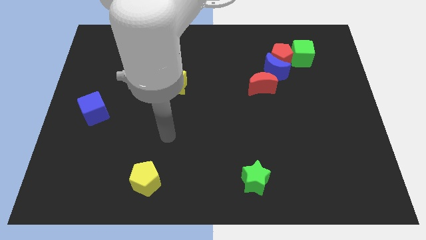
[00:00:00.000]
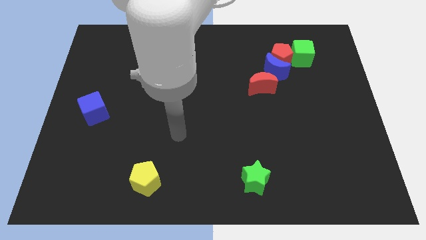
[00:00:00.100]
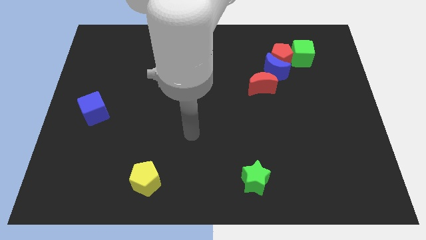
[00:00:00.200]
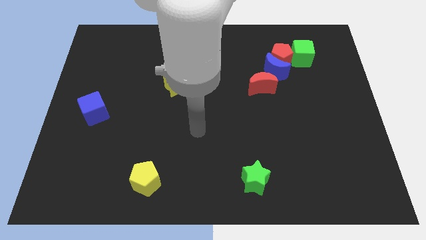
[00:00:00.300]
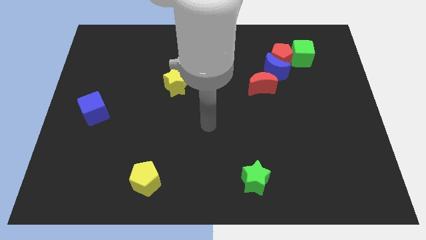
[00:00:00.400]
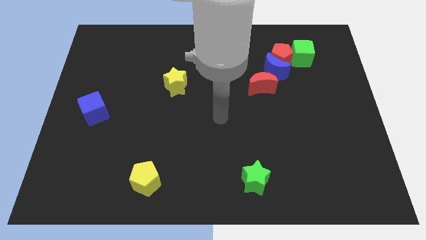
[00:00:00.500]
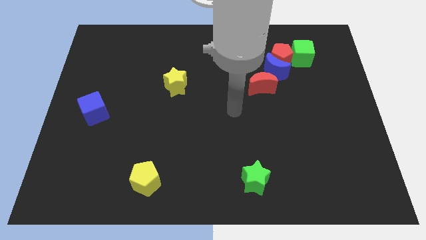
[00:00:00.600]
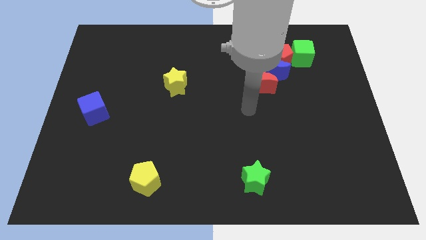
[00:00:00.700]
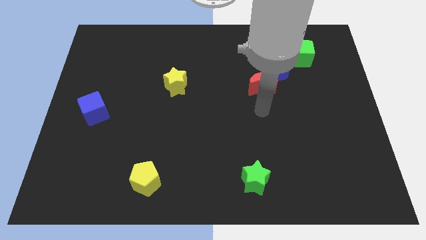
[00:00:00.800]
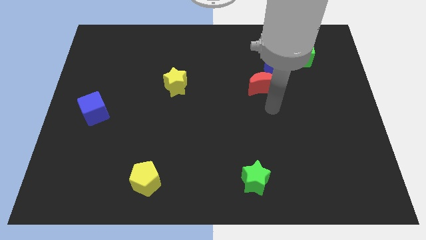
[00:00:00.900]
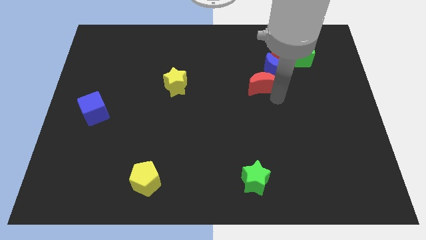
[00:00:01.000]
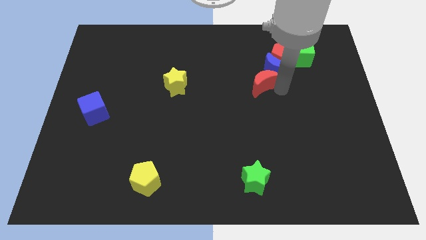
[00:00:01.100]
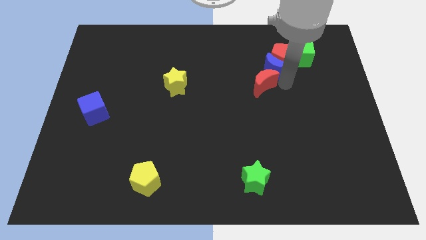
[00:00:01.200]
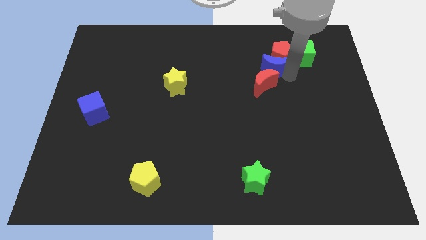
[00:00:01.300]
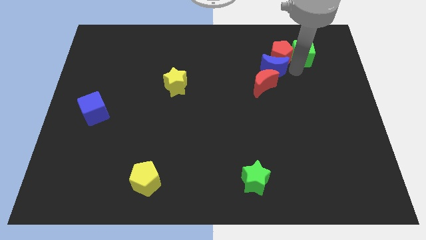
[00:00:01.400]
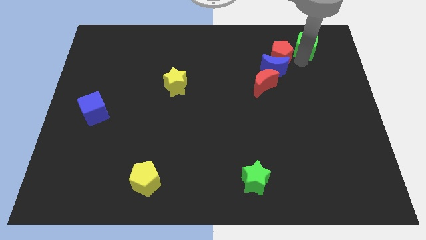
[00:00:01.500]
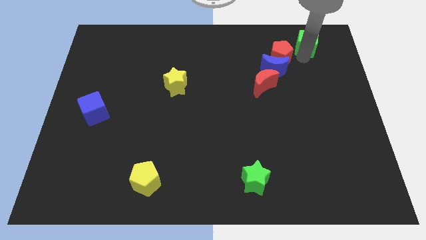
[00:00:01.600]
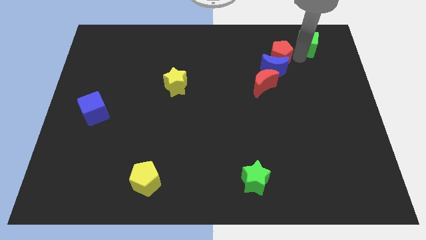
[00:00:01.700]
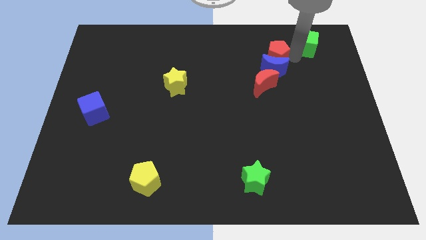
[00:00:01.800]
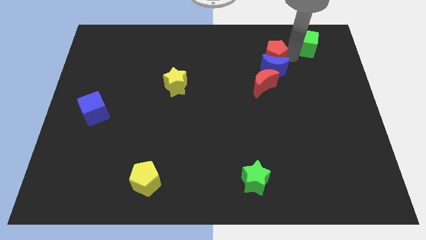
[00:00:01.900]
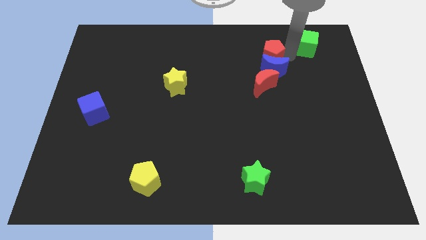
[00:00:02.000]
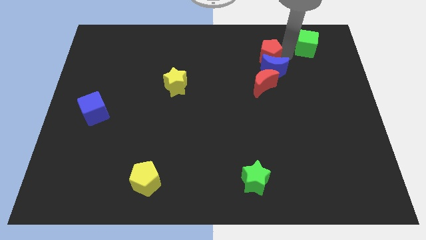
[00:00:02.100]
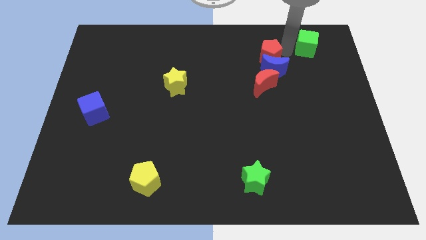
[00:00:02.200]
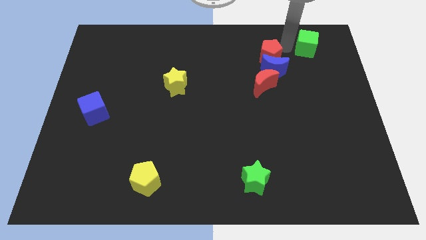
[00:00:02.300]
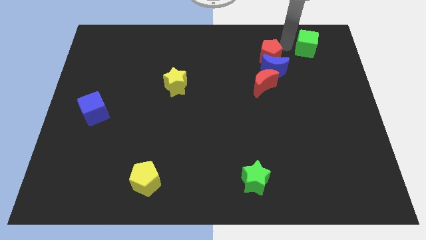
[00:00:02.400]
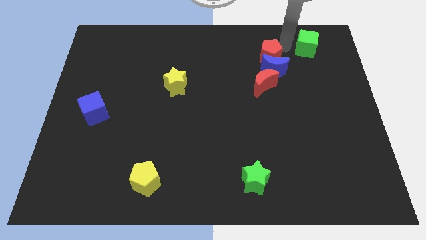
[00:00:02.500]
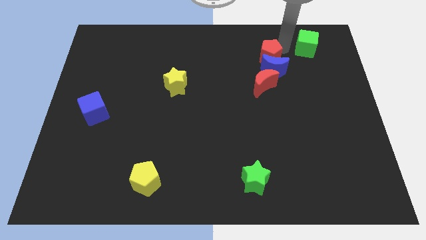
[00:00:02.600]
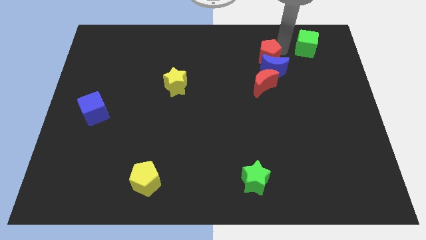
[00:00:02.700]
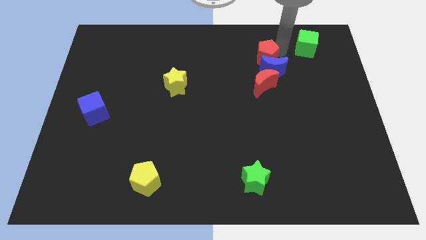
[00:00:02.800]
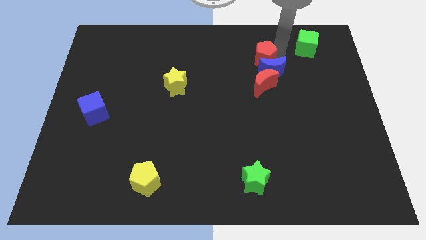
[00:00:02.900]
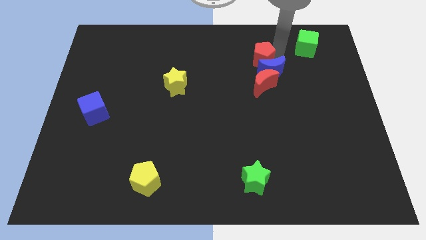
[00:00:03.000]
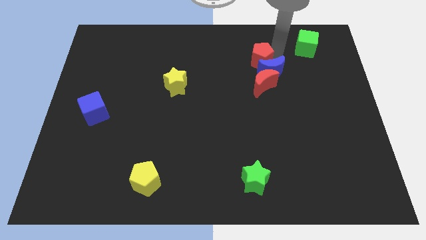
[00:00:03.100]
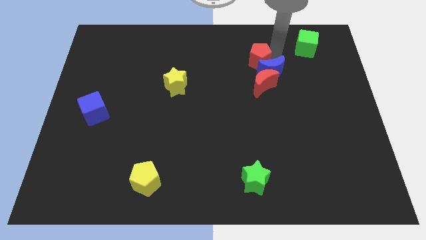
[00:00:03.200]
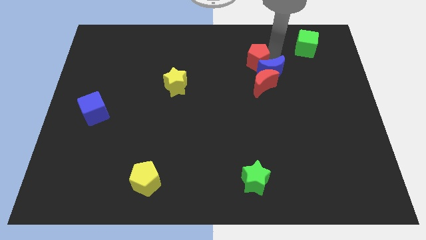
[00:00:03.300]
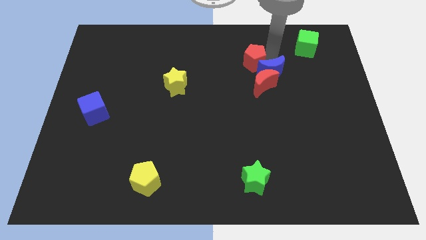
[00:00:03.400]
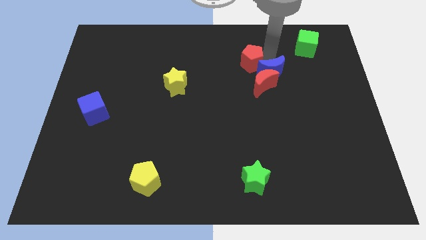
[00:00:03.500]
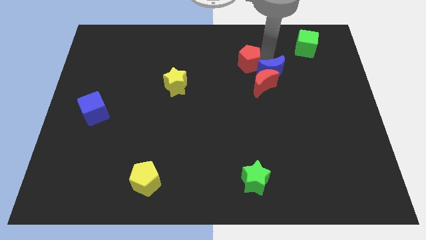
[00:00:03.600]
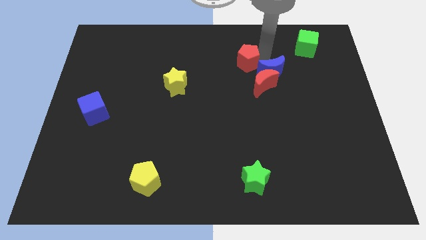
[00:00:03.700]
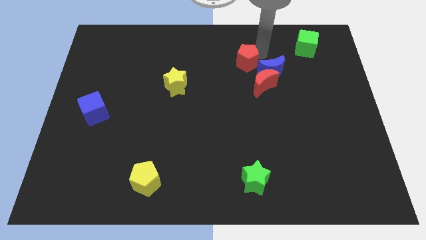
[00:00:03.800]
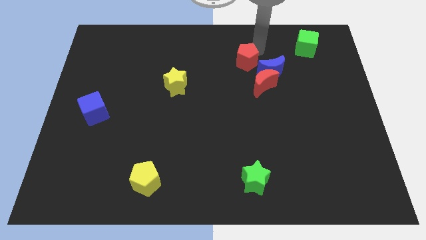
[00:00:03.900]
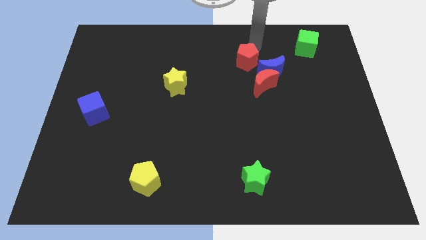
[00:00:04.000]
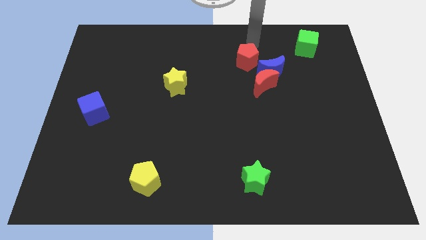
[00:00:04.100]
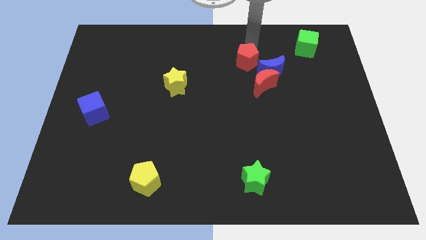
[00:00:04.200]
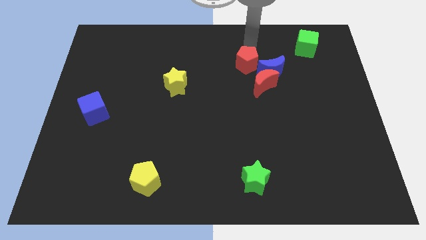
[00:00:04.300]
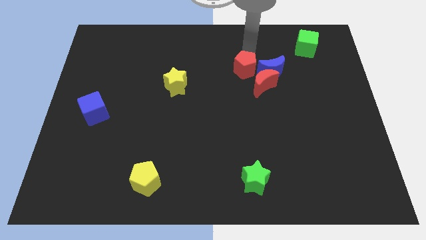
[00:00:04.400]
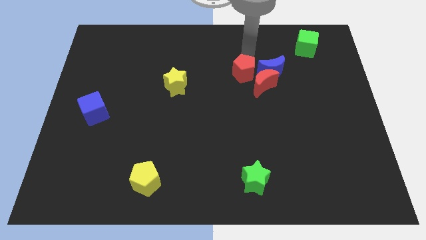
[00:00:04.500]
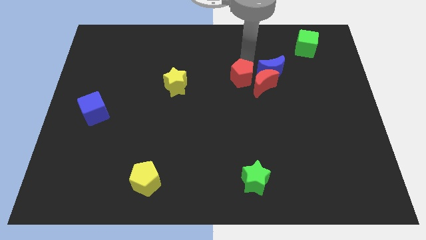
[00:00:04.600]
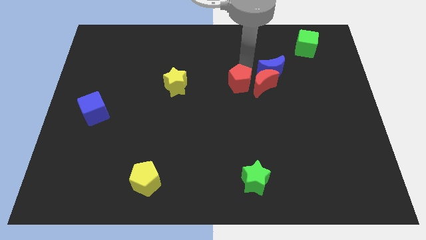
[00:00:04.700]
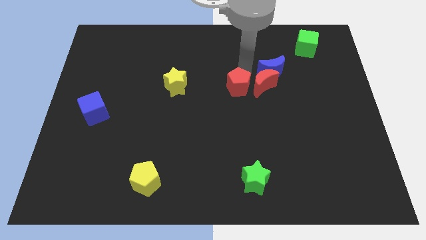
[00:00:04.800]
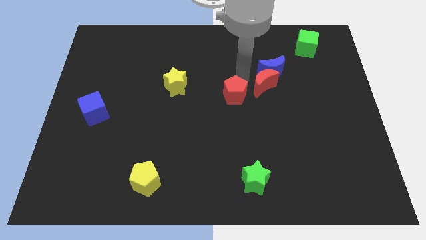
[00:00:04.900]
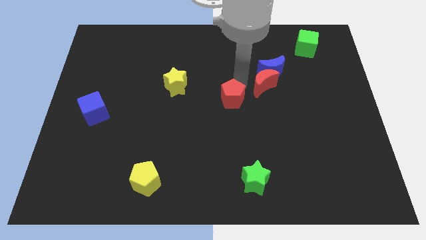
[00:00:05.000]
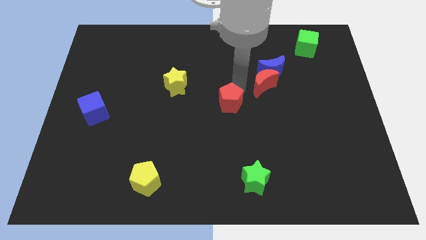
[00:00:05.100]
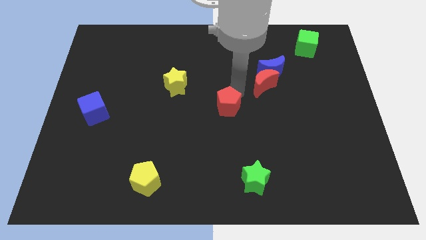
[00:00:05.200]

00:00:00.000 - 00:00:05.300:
move the red pentagon downwards and to the left diagonally

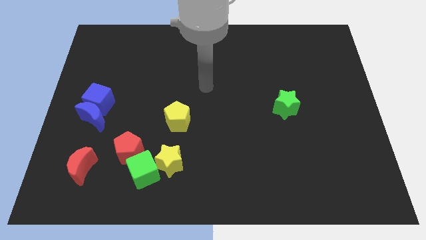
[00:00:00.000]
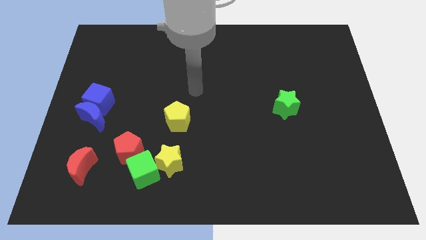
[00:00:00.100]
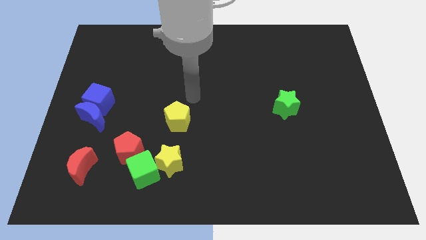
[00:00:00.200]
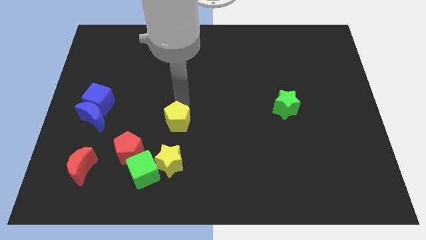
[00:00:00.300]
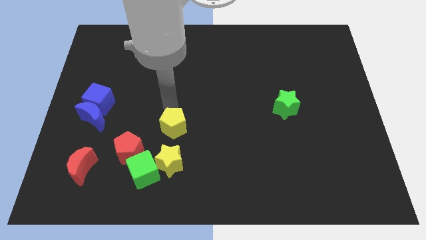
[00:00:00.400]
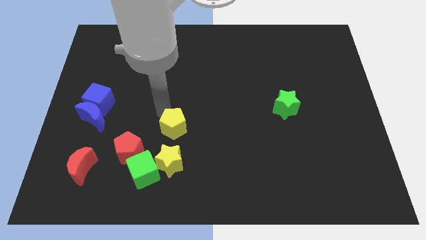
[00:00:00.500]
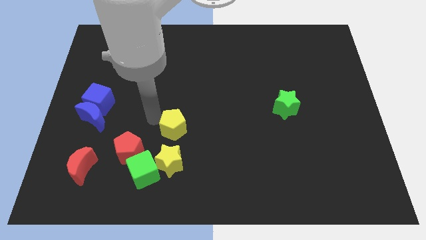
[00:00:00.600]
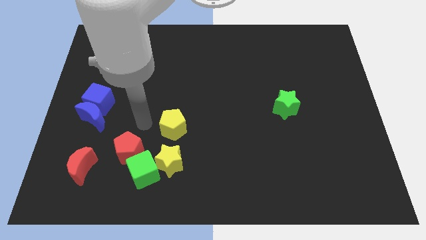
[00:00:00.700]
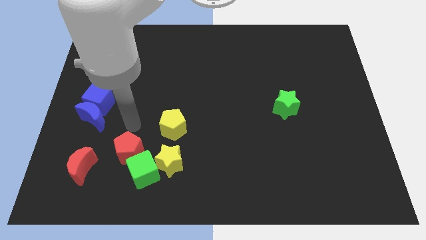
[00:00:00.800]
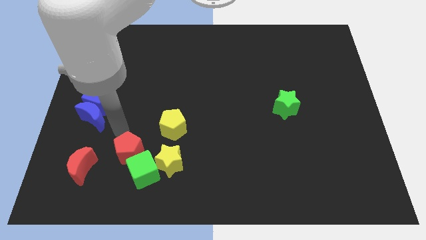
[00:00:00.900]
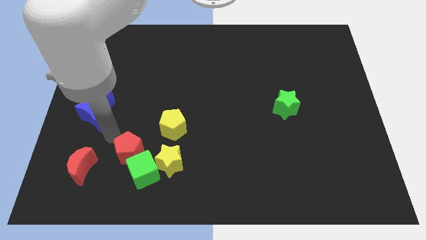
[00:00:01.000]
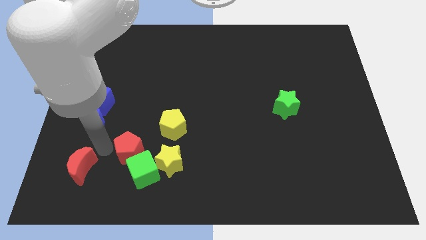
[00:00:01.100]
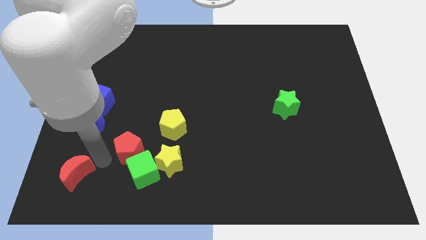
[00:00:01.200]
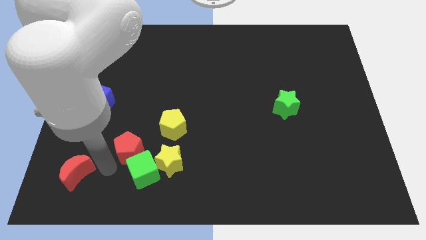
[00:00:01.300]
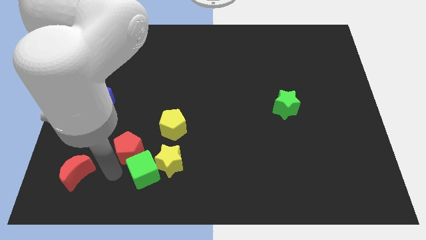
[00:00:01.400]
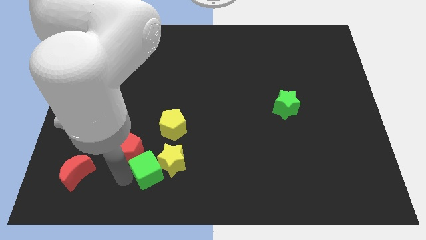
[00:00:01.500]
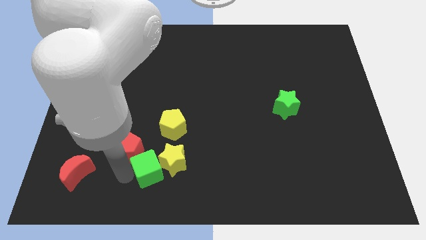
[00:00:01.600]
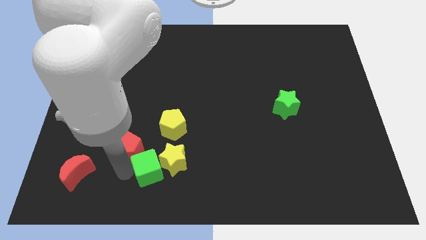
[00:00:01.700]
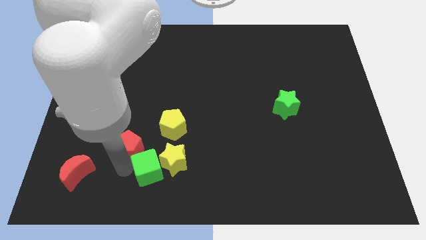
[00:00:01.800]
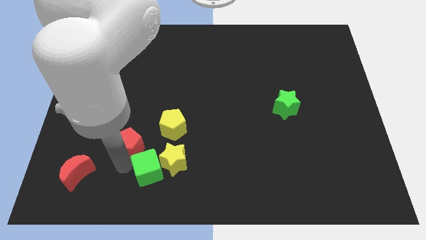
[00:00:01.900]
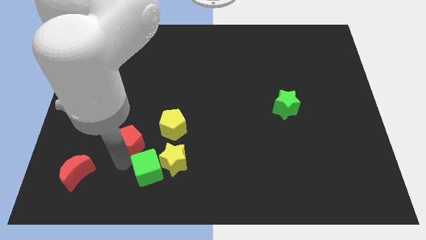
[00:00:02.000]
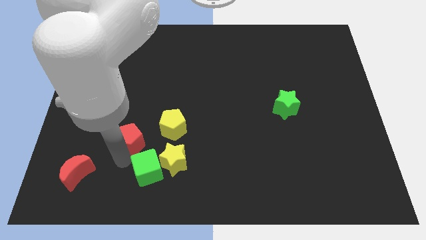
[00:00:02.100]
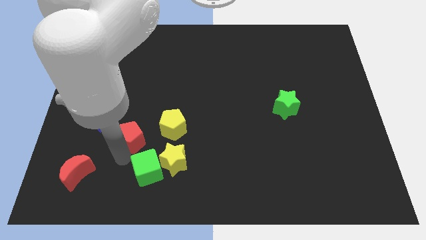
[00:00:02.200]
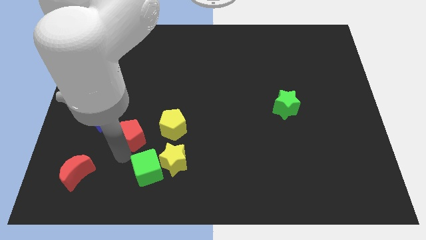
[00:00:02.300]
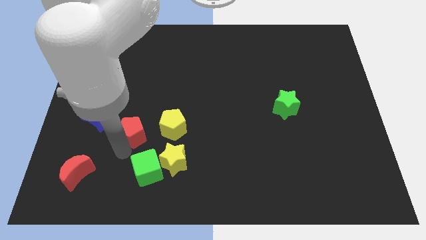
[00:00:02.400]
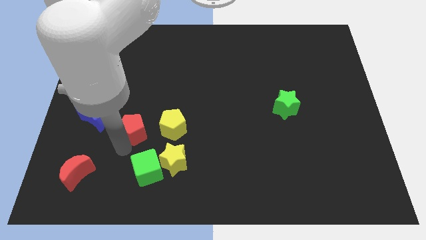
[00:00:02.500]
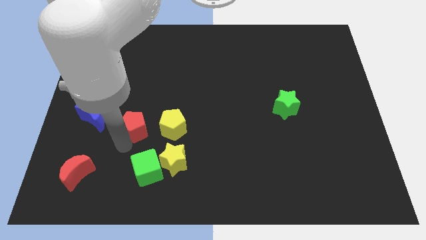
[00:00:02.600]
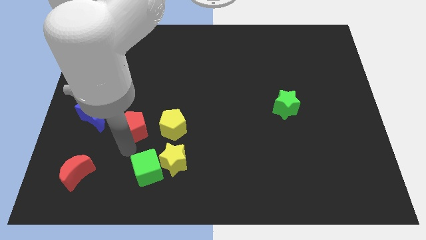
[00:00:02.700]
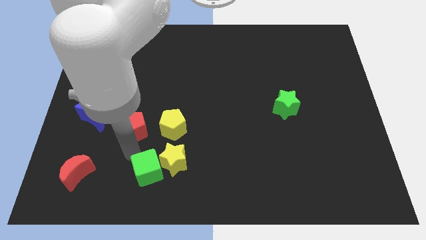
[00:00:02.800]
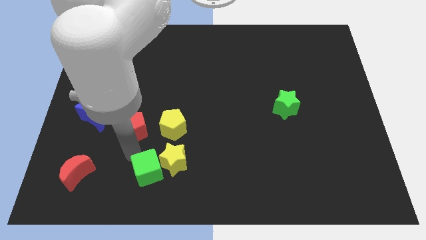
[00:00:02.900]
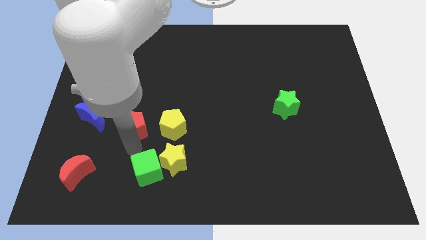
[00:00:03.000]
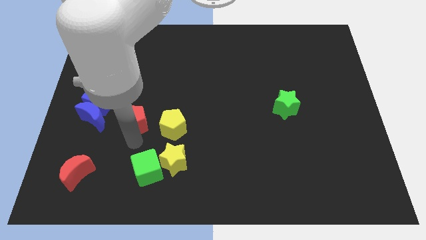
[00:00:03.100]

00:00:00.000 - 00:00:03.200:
move the red pentagon upwards slightly

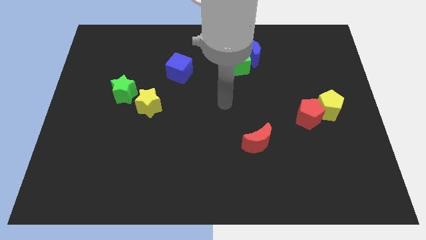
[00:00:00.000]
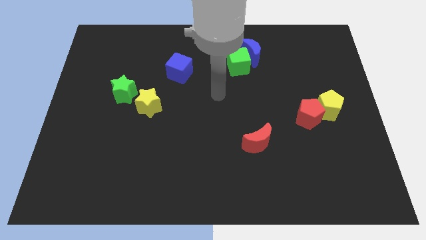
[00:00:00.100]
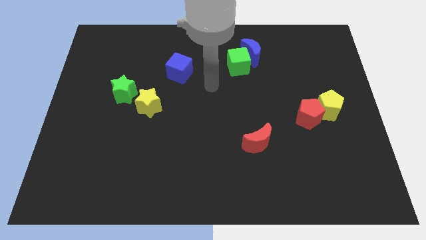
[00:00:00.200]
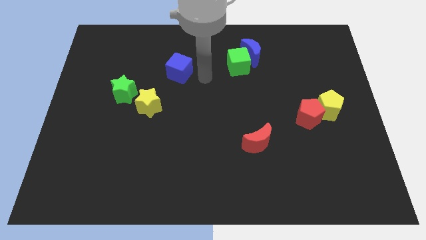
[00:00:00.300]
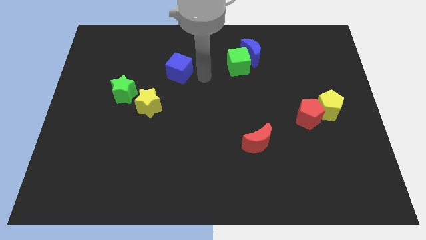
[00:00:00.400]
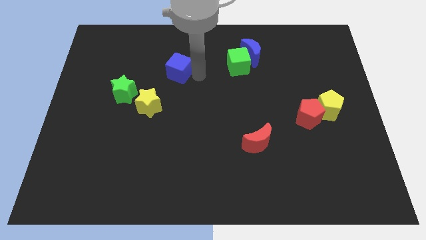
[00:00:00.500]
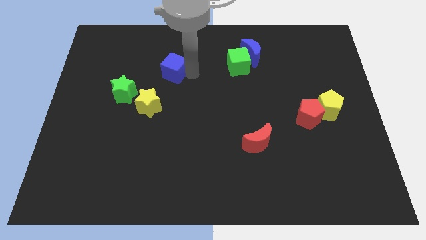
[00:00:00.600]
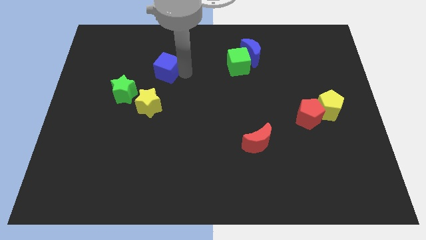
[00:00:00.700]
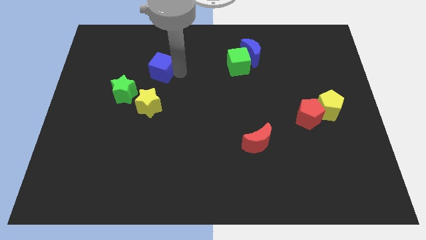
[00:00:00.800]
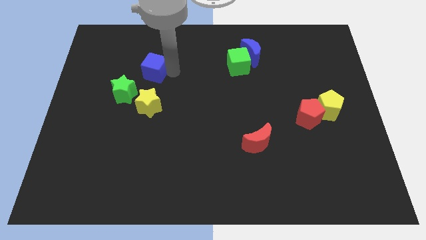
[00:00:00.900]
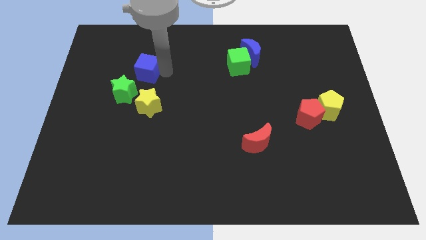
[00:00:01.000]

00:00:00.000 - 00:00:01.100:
push the blue cube a little bit left
